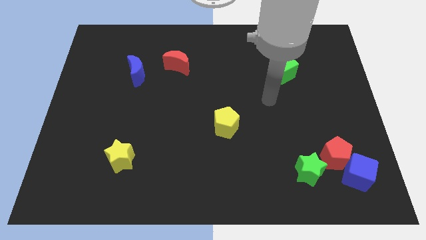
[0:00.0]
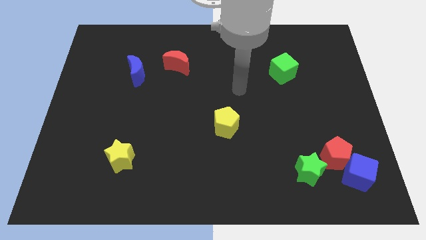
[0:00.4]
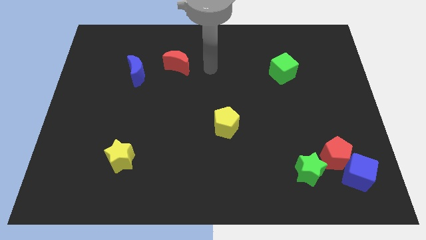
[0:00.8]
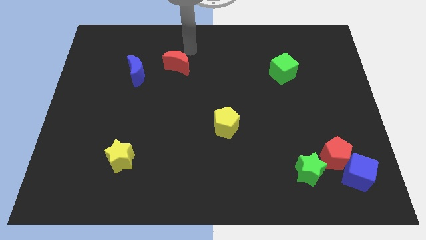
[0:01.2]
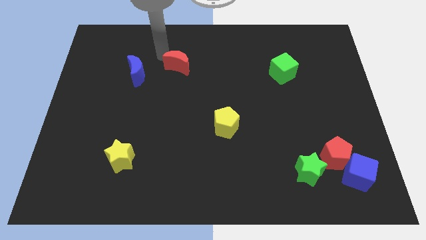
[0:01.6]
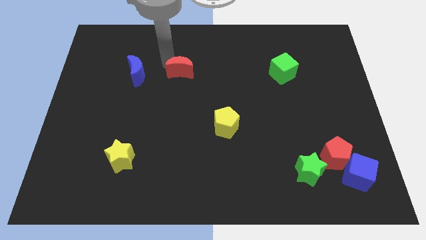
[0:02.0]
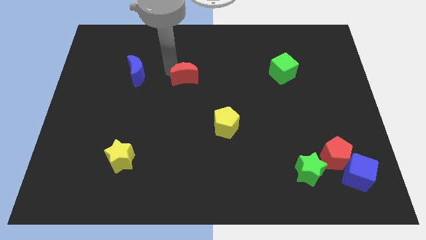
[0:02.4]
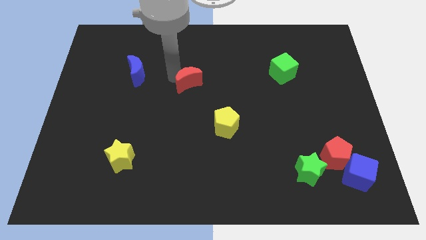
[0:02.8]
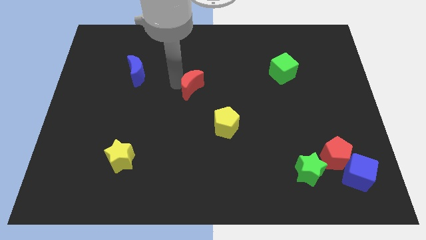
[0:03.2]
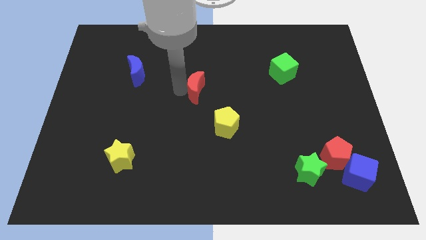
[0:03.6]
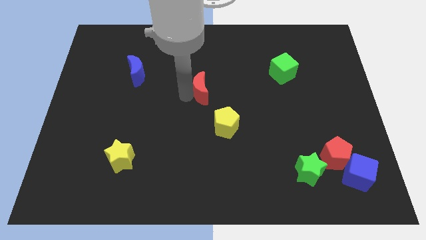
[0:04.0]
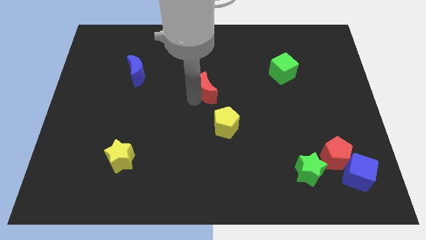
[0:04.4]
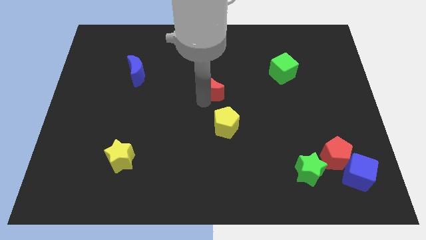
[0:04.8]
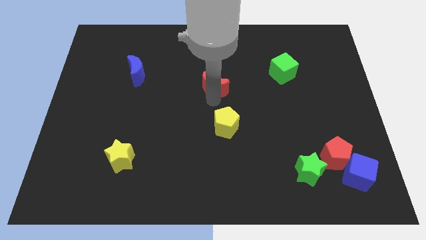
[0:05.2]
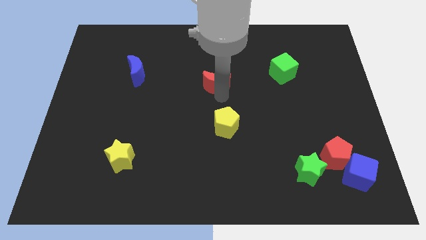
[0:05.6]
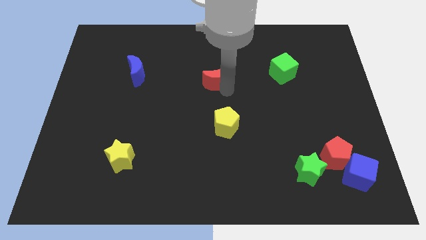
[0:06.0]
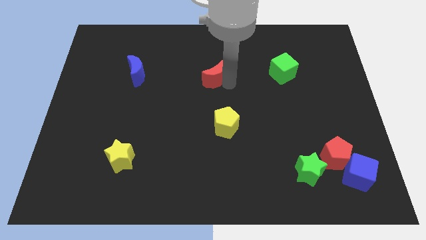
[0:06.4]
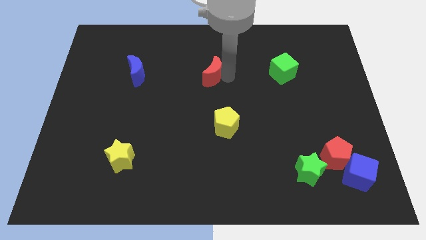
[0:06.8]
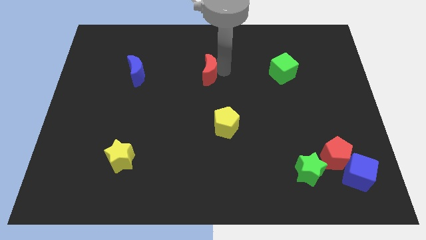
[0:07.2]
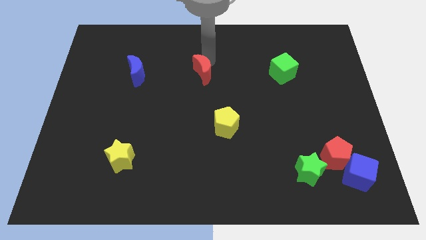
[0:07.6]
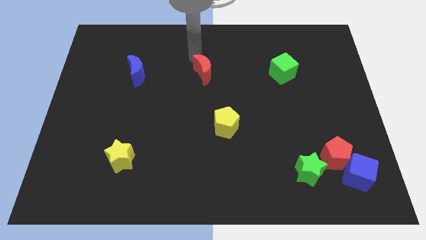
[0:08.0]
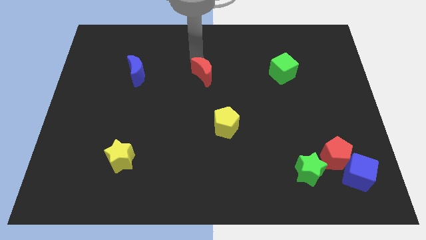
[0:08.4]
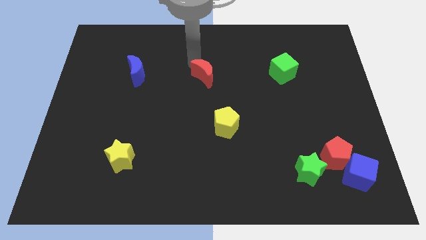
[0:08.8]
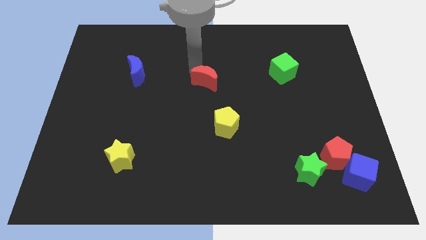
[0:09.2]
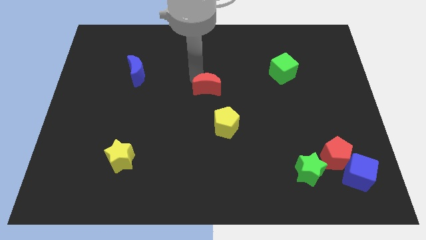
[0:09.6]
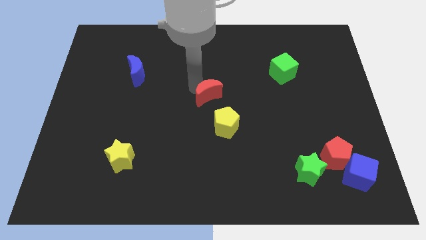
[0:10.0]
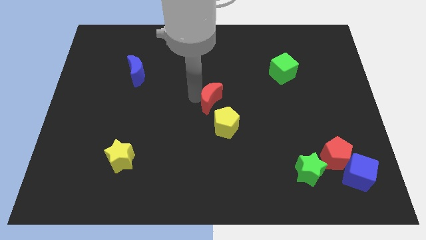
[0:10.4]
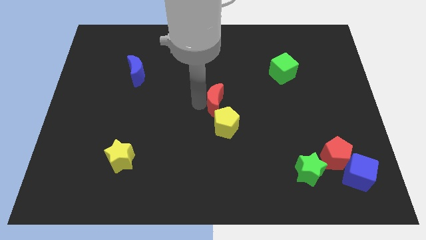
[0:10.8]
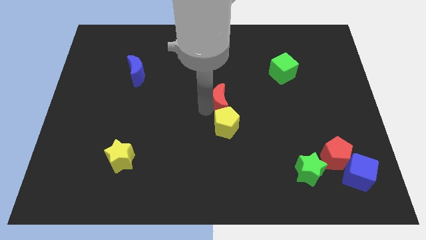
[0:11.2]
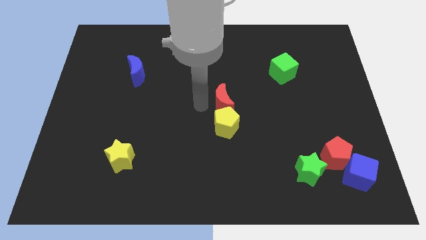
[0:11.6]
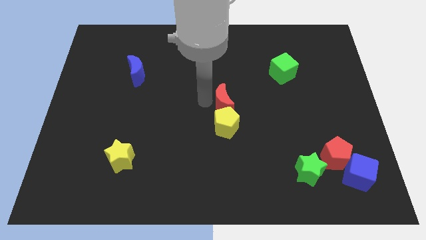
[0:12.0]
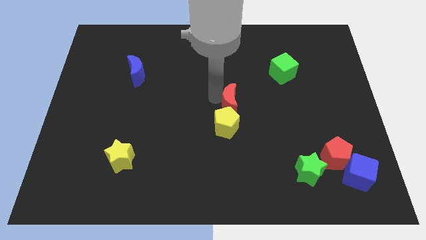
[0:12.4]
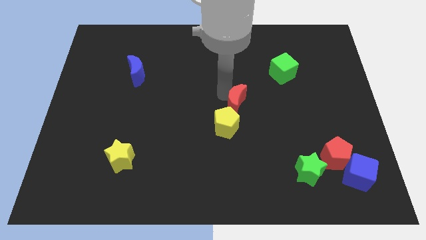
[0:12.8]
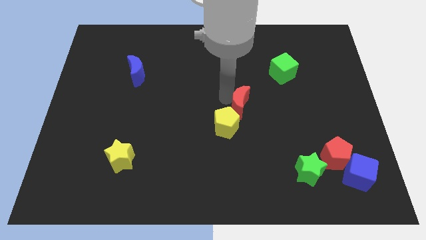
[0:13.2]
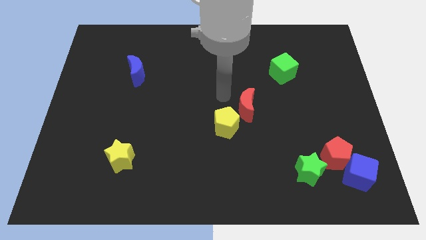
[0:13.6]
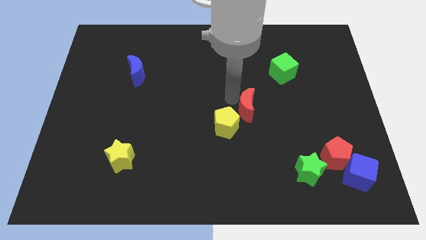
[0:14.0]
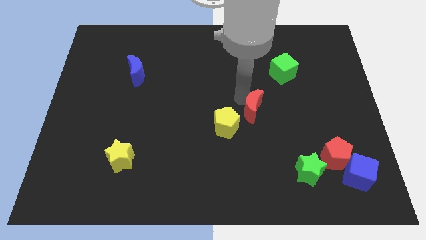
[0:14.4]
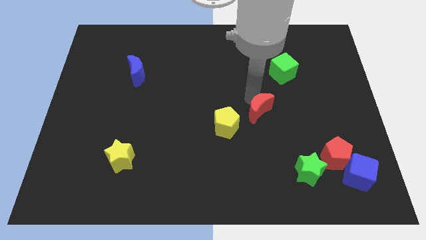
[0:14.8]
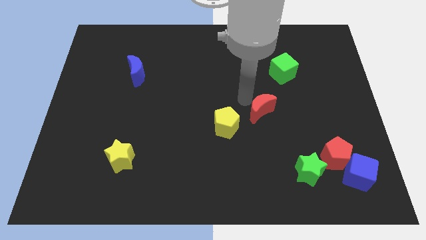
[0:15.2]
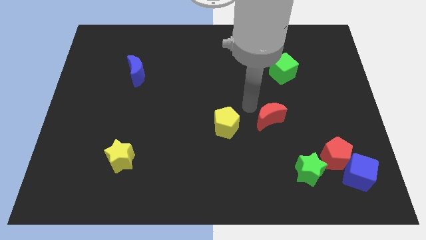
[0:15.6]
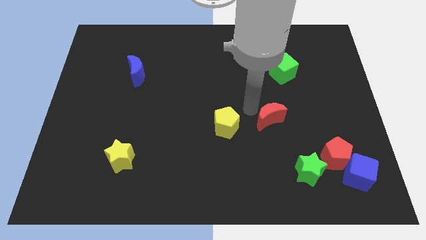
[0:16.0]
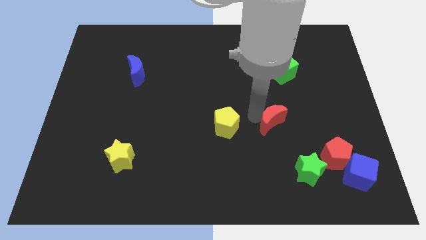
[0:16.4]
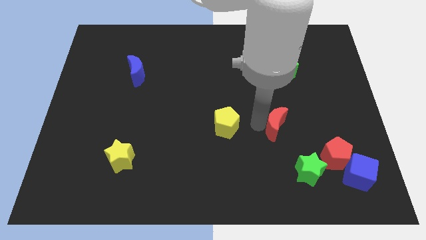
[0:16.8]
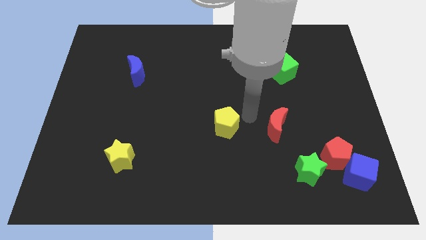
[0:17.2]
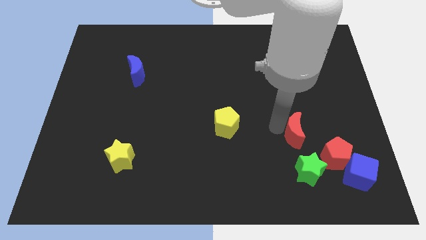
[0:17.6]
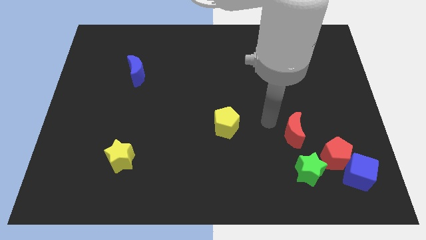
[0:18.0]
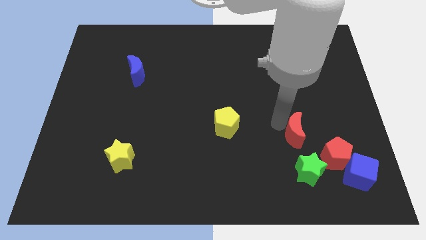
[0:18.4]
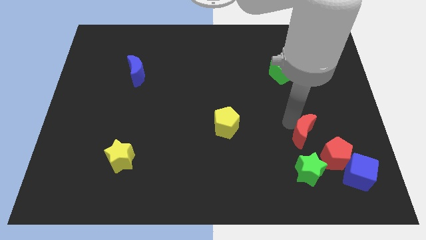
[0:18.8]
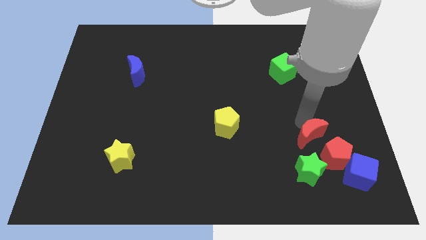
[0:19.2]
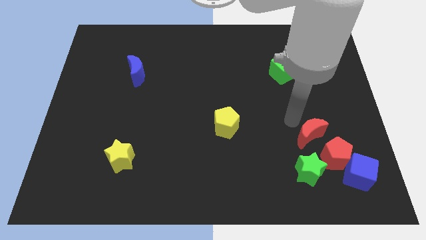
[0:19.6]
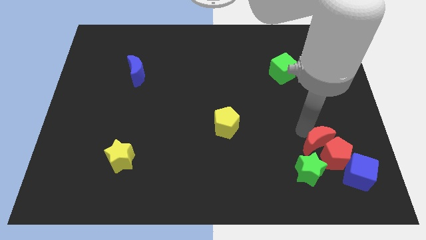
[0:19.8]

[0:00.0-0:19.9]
move the red moon towards the red pentagon

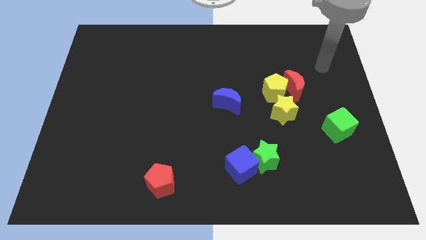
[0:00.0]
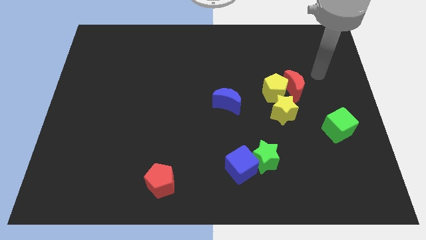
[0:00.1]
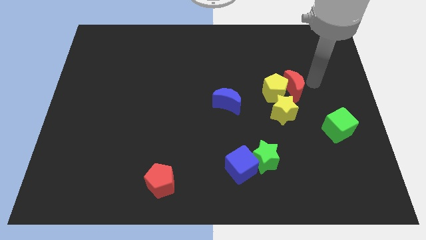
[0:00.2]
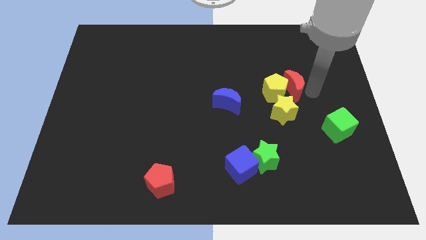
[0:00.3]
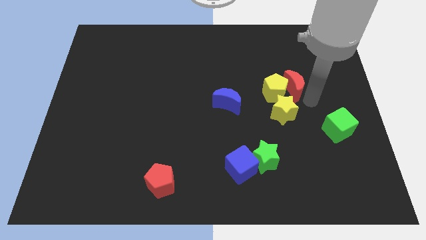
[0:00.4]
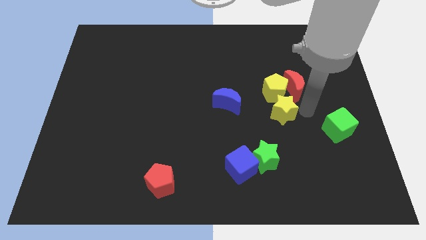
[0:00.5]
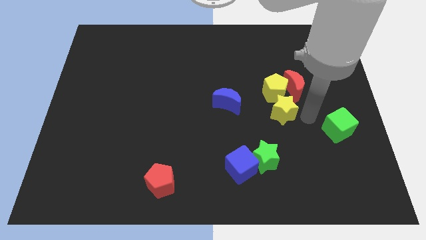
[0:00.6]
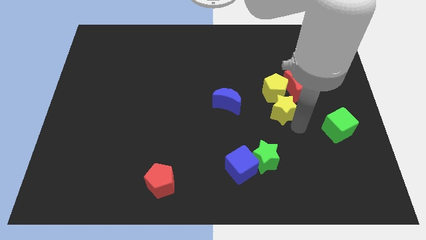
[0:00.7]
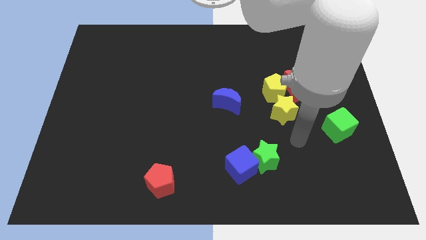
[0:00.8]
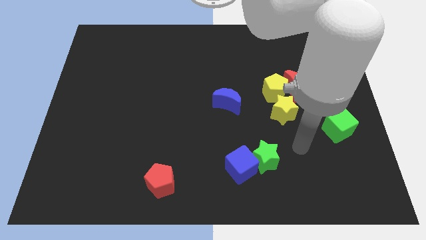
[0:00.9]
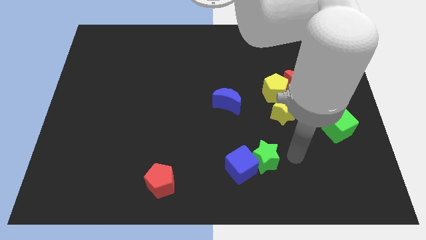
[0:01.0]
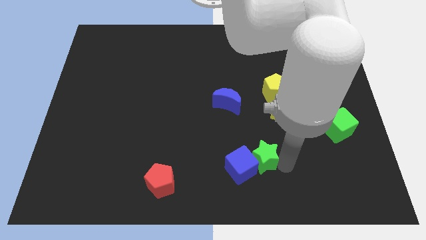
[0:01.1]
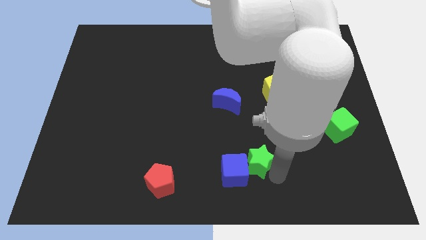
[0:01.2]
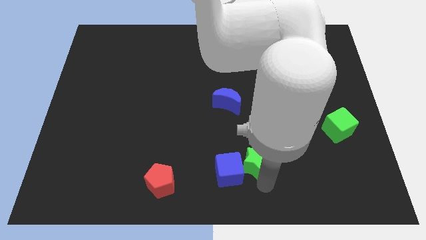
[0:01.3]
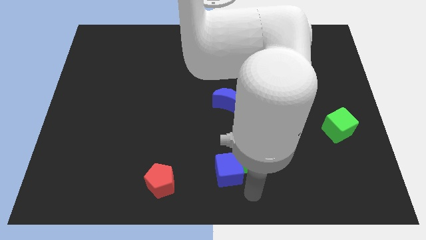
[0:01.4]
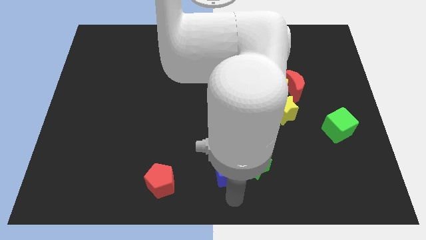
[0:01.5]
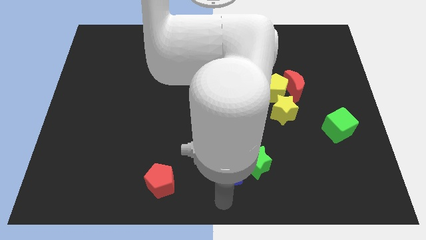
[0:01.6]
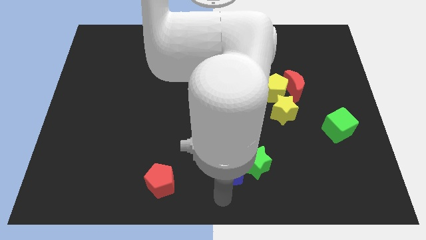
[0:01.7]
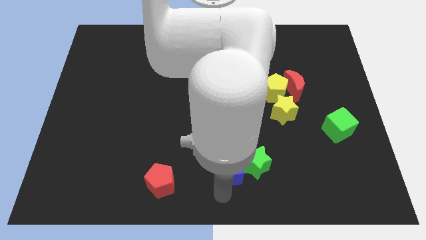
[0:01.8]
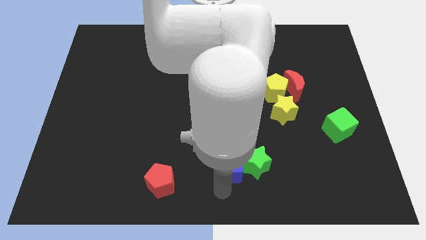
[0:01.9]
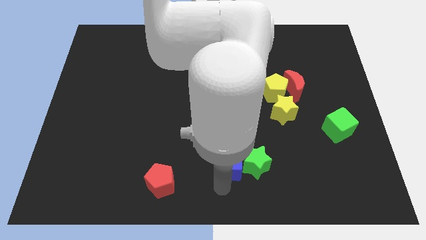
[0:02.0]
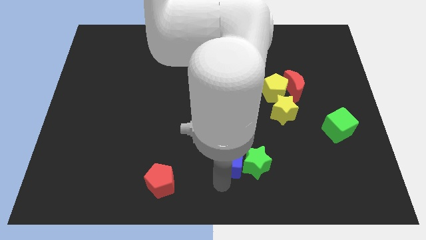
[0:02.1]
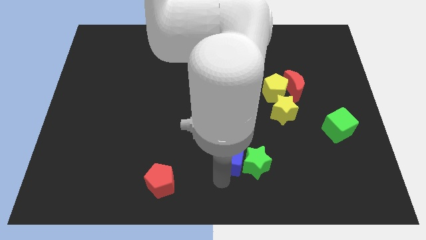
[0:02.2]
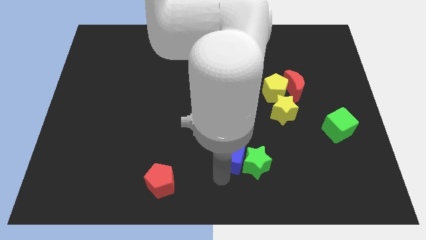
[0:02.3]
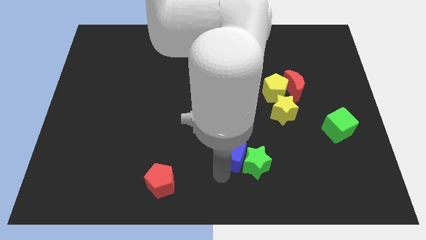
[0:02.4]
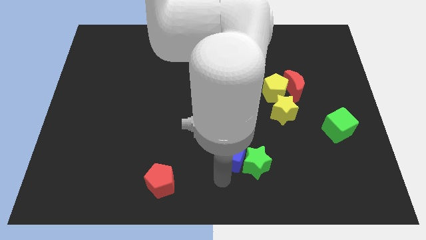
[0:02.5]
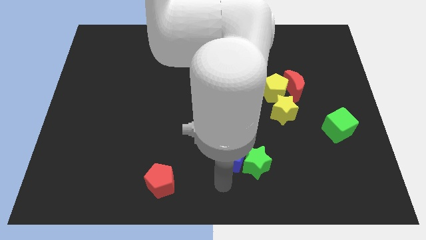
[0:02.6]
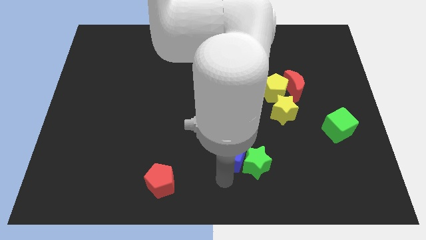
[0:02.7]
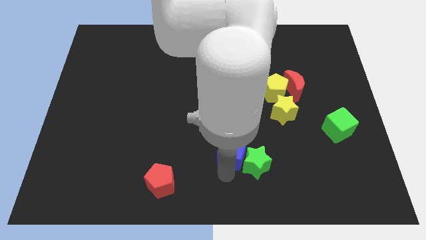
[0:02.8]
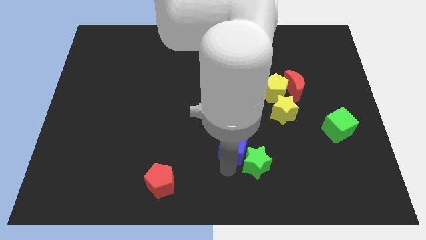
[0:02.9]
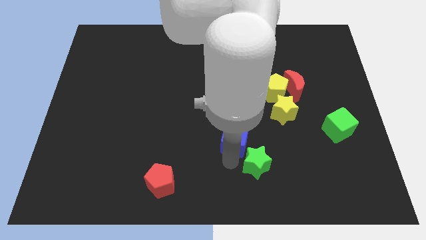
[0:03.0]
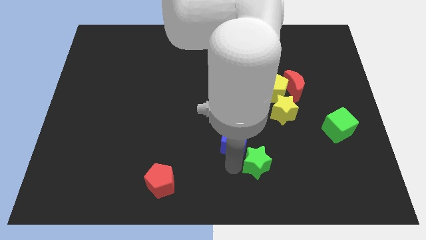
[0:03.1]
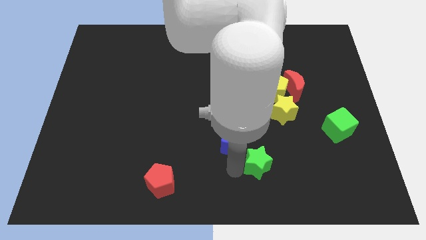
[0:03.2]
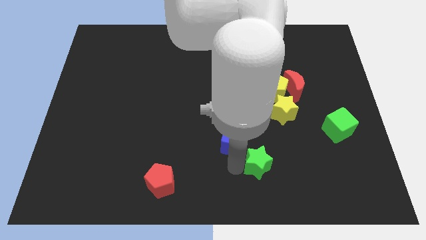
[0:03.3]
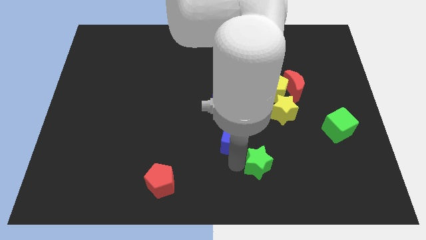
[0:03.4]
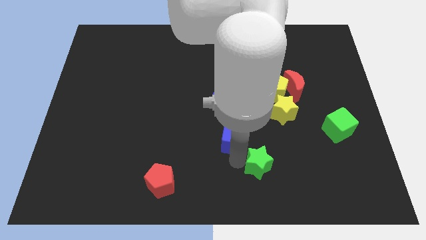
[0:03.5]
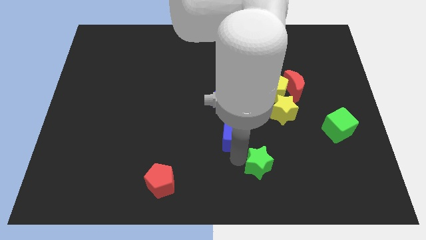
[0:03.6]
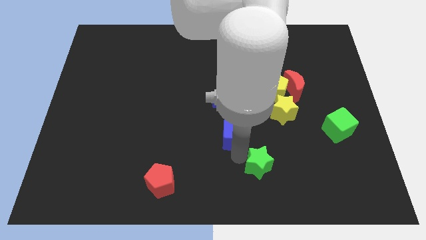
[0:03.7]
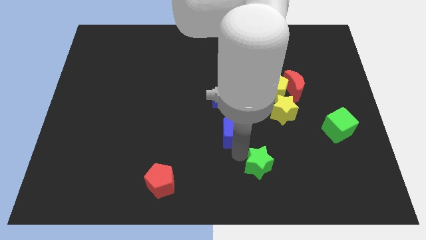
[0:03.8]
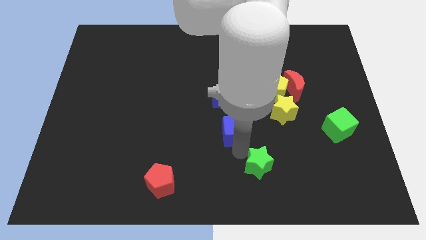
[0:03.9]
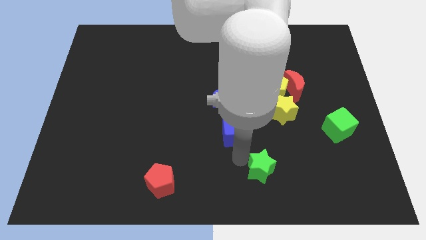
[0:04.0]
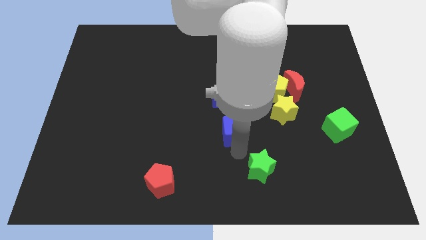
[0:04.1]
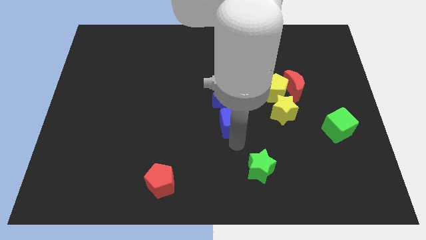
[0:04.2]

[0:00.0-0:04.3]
move the blue cube close to the blue moon
